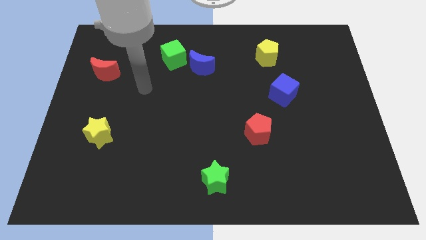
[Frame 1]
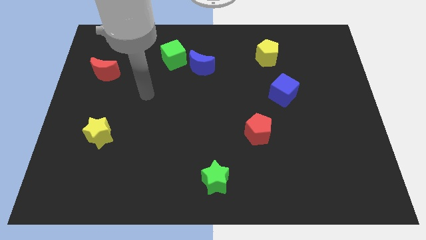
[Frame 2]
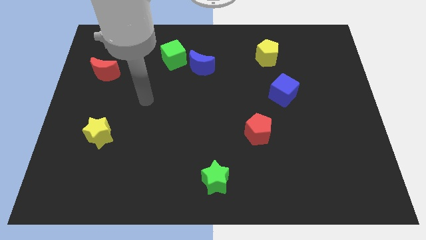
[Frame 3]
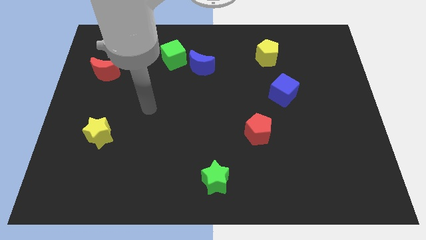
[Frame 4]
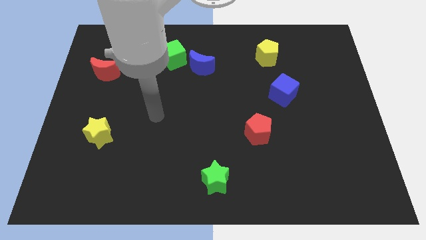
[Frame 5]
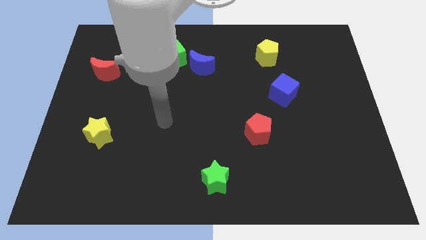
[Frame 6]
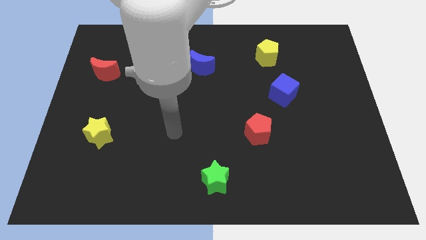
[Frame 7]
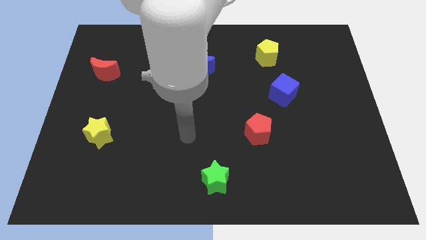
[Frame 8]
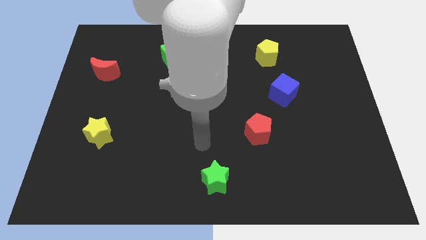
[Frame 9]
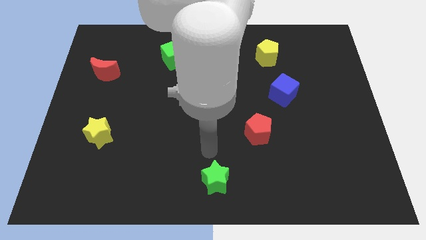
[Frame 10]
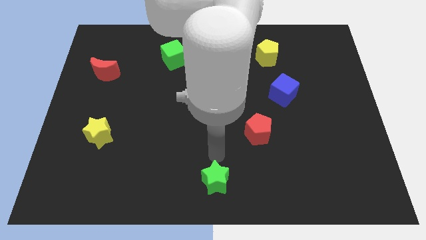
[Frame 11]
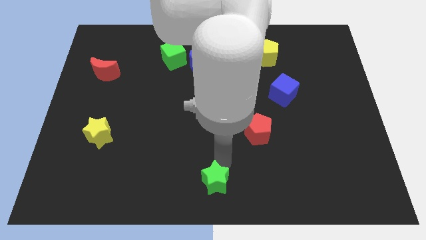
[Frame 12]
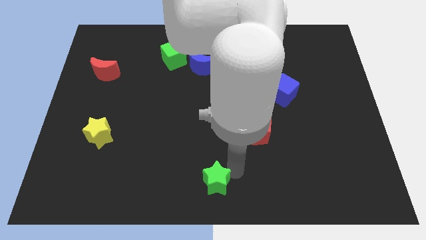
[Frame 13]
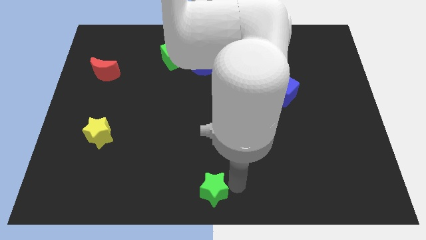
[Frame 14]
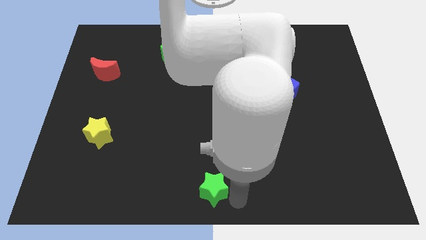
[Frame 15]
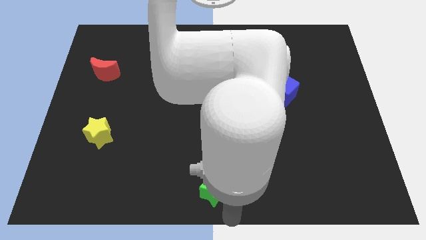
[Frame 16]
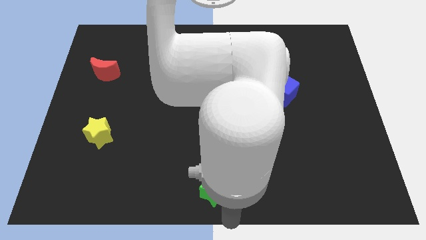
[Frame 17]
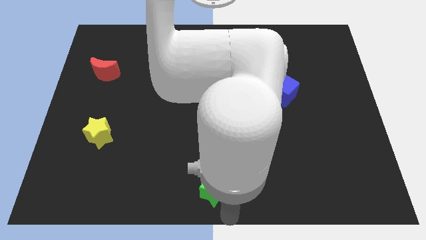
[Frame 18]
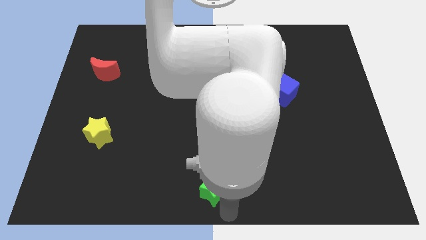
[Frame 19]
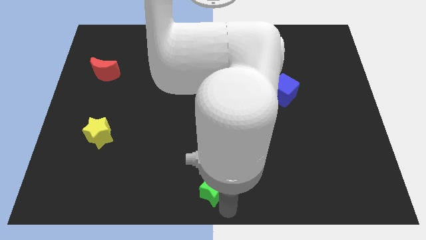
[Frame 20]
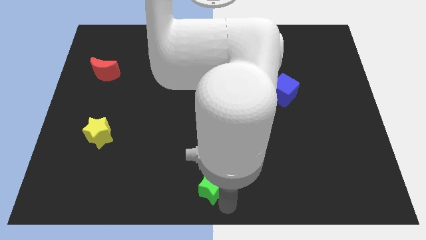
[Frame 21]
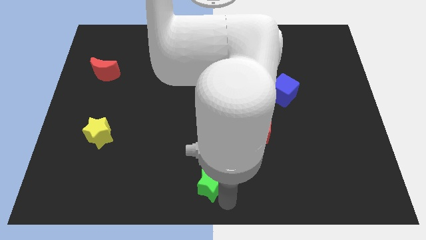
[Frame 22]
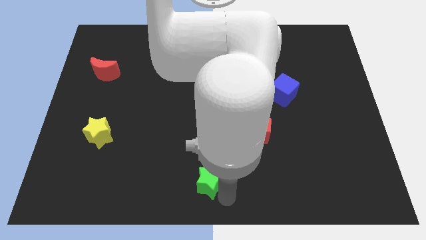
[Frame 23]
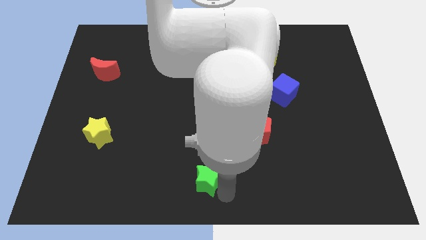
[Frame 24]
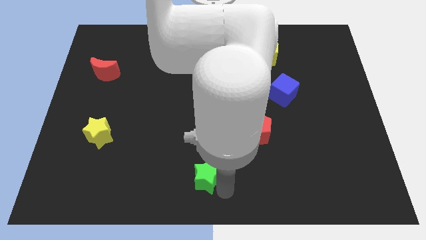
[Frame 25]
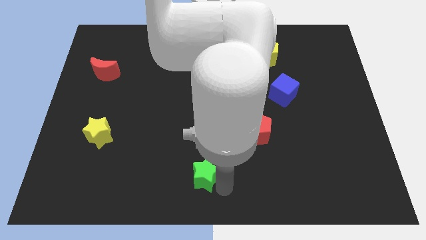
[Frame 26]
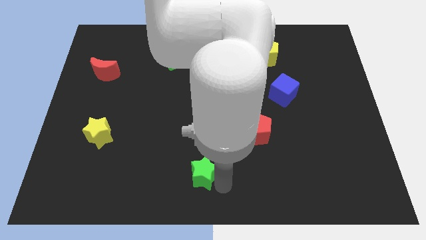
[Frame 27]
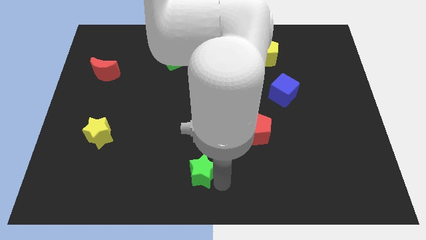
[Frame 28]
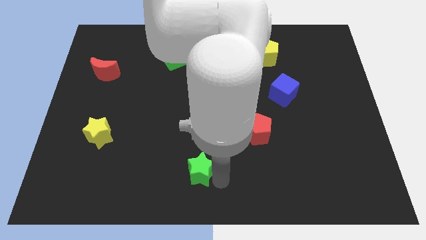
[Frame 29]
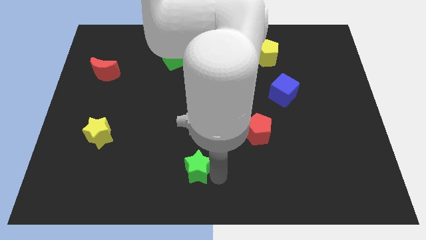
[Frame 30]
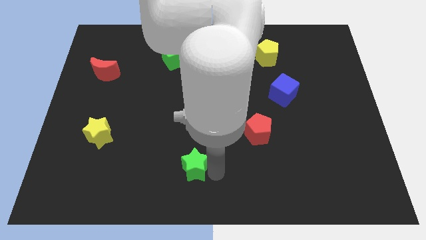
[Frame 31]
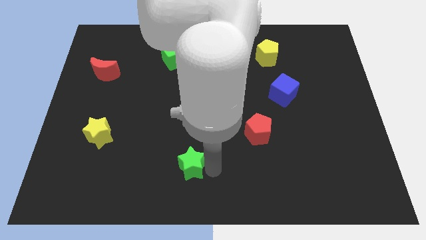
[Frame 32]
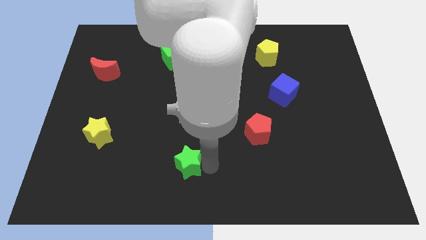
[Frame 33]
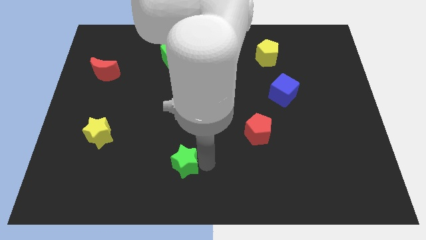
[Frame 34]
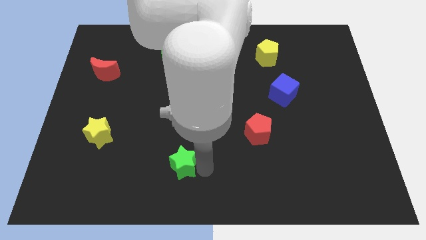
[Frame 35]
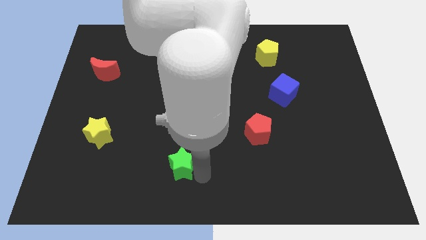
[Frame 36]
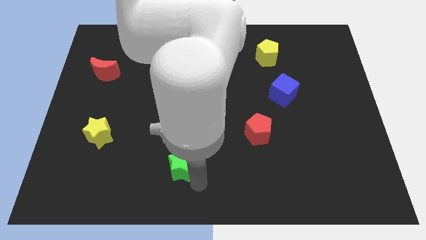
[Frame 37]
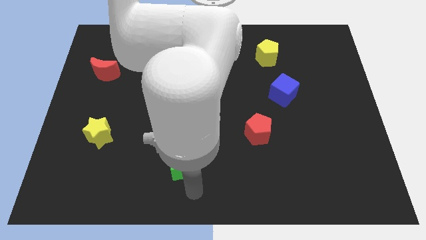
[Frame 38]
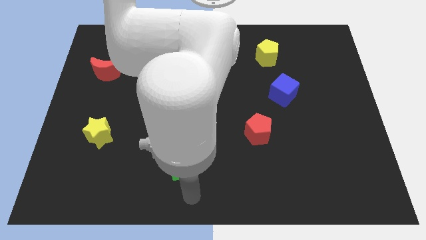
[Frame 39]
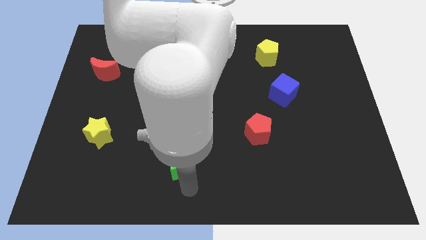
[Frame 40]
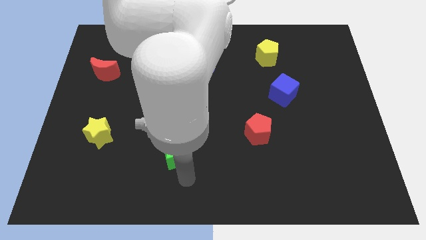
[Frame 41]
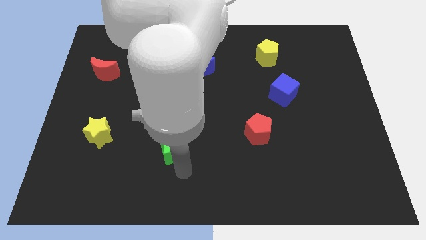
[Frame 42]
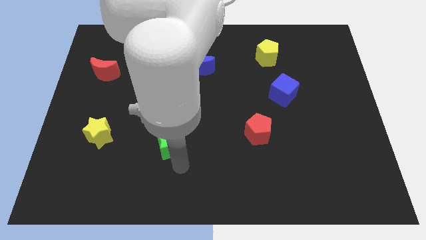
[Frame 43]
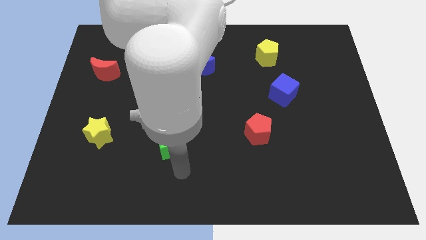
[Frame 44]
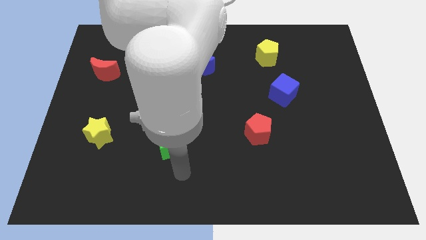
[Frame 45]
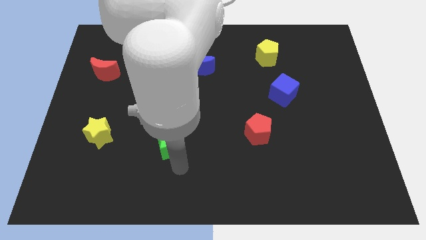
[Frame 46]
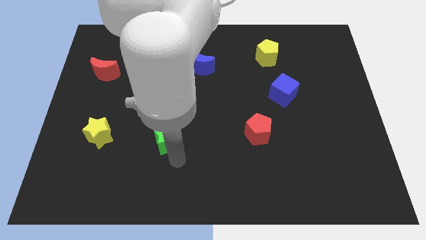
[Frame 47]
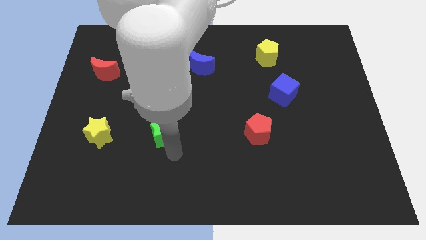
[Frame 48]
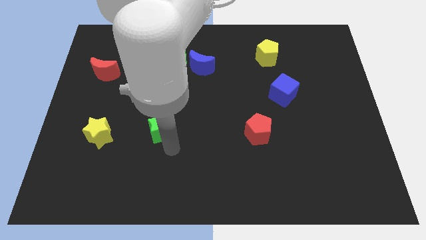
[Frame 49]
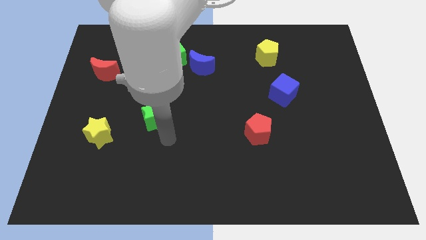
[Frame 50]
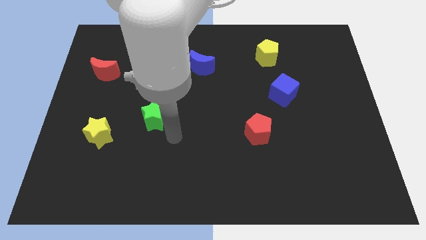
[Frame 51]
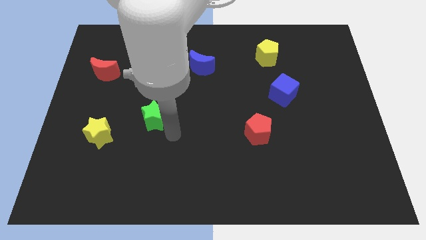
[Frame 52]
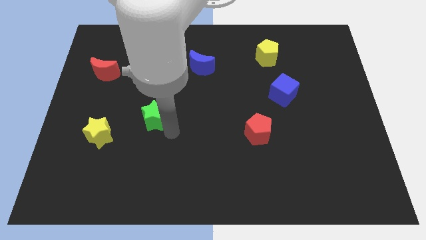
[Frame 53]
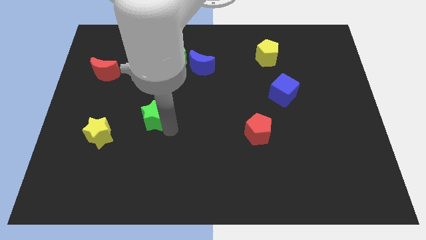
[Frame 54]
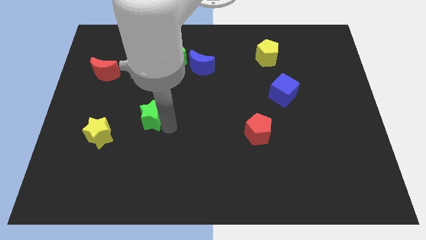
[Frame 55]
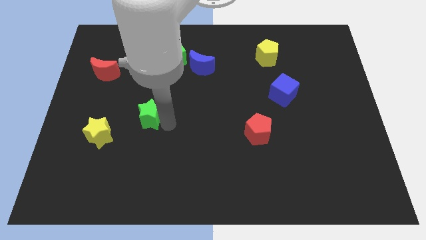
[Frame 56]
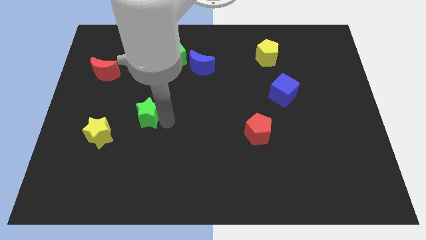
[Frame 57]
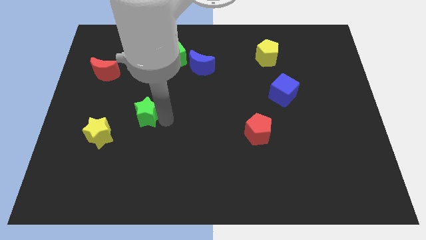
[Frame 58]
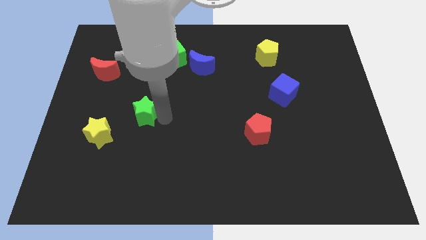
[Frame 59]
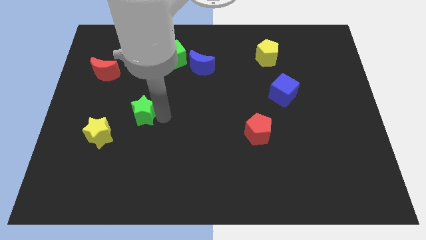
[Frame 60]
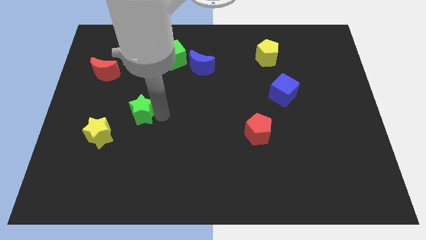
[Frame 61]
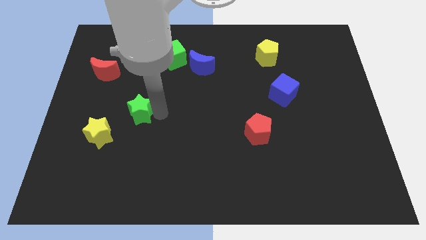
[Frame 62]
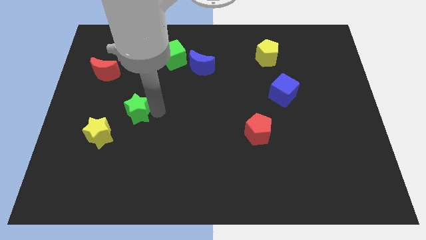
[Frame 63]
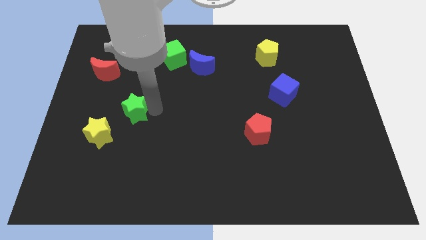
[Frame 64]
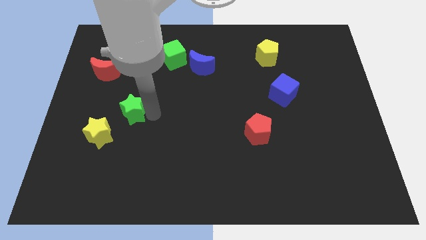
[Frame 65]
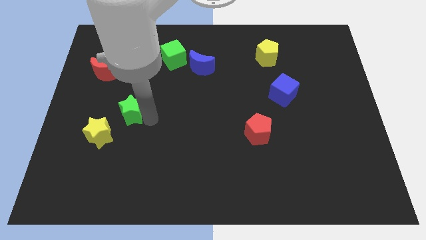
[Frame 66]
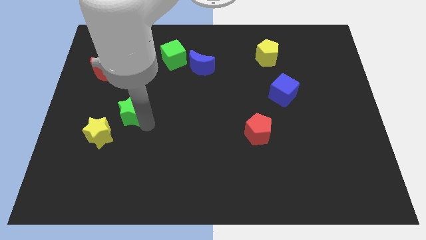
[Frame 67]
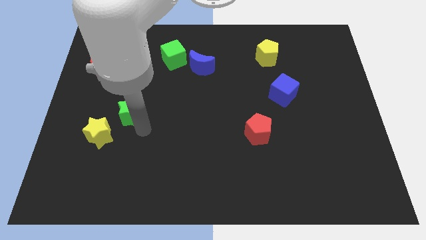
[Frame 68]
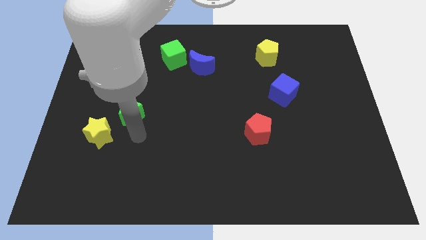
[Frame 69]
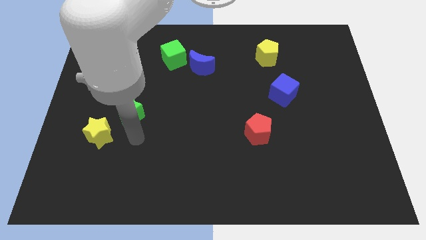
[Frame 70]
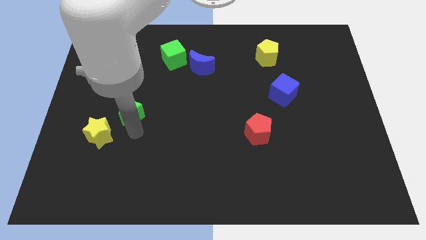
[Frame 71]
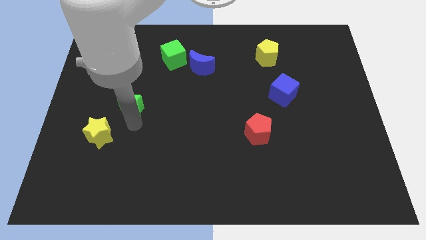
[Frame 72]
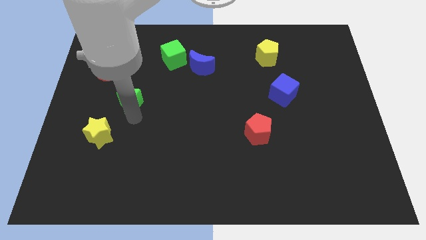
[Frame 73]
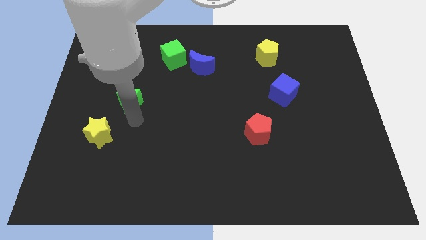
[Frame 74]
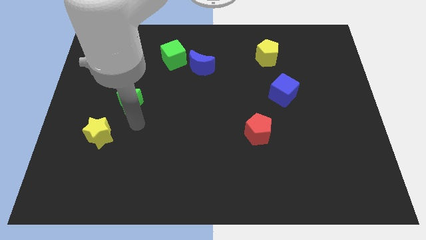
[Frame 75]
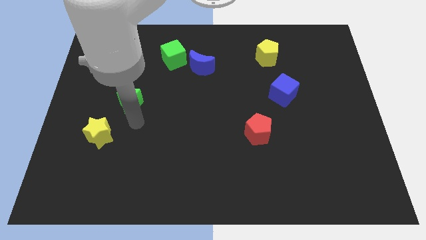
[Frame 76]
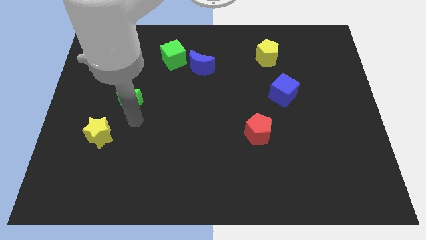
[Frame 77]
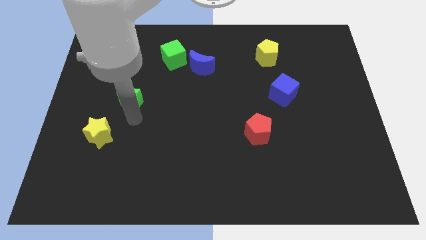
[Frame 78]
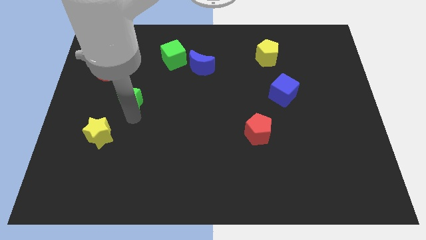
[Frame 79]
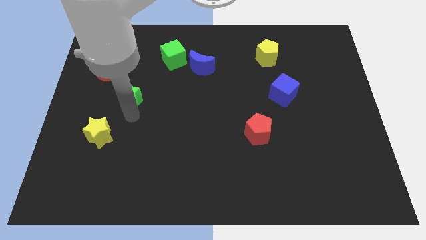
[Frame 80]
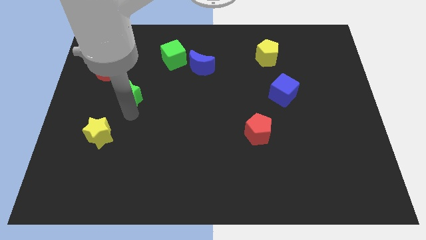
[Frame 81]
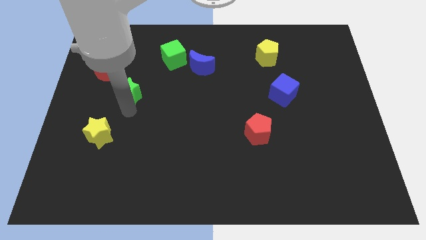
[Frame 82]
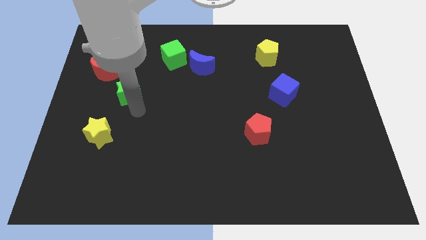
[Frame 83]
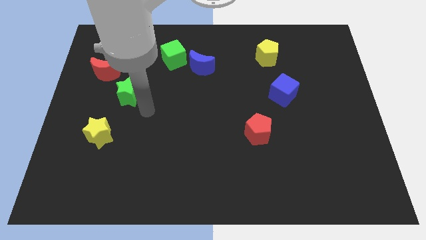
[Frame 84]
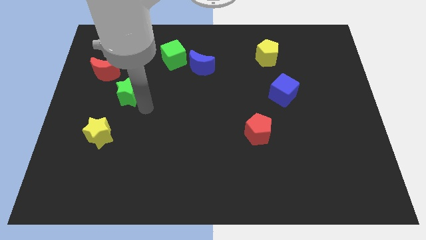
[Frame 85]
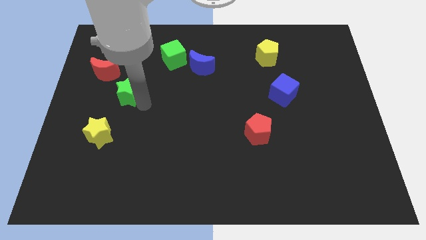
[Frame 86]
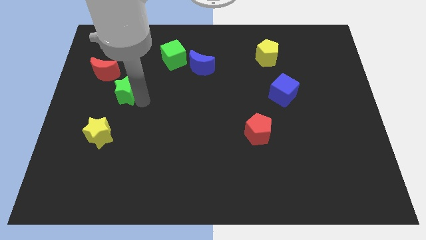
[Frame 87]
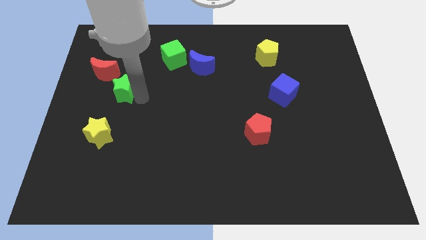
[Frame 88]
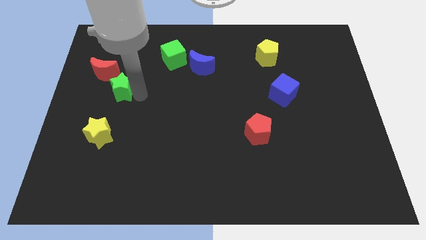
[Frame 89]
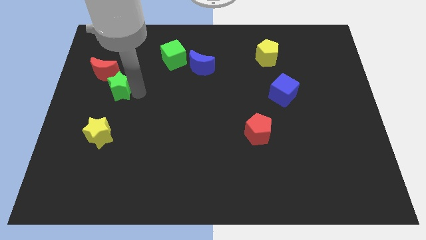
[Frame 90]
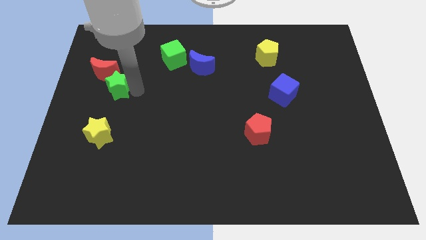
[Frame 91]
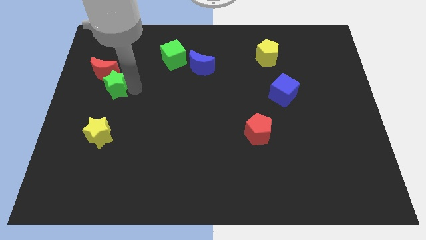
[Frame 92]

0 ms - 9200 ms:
put the green star to the red moon
